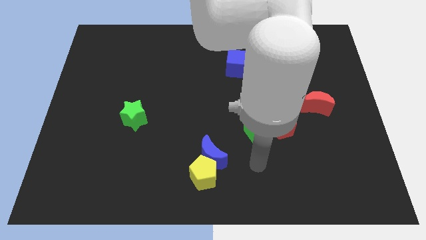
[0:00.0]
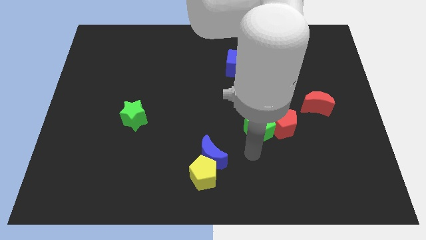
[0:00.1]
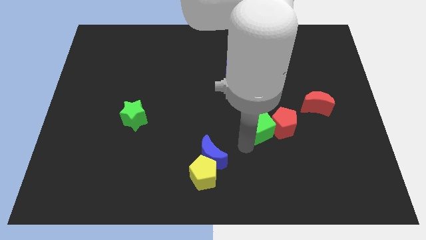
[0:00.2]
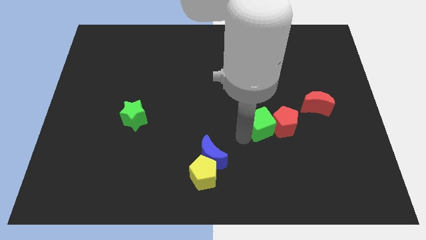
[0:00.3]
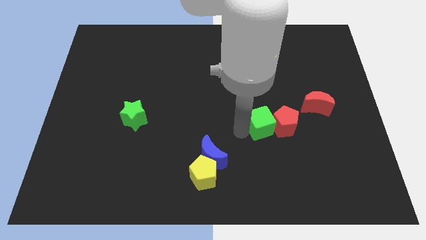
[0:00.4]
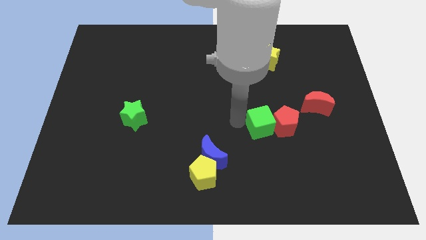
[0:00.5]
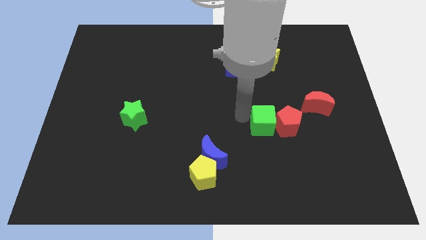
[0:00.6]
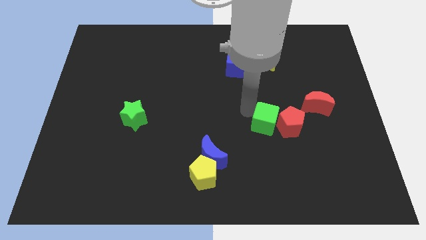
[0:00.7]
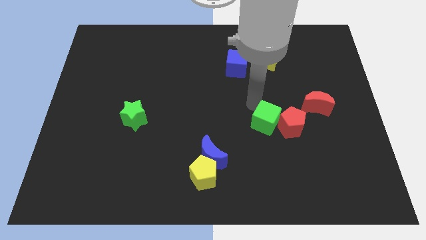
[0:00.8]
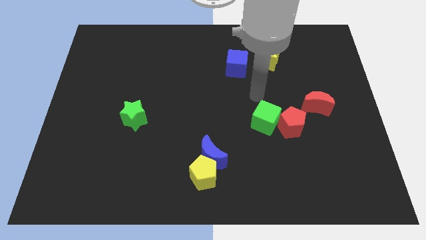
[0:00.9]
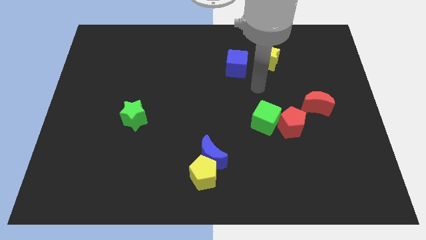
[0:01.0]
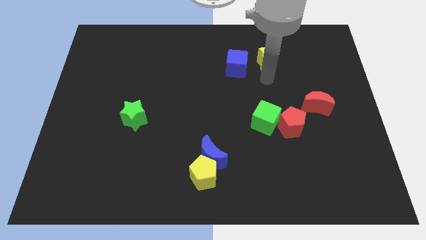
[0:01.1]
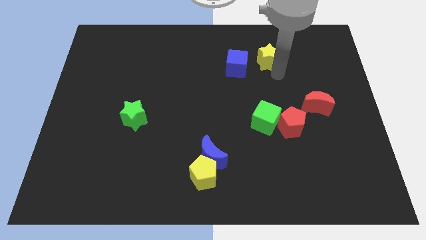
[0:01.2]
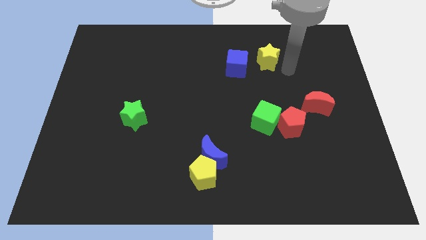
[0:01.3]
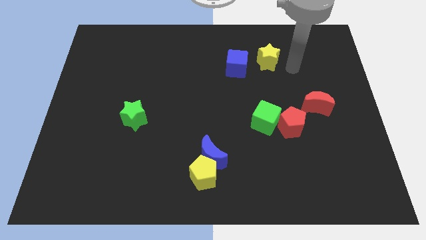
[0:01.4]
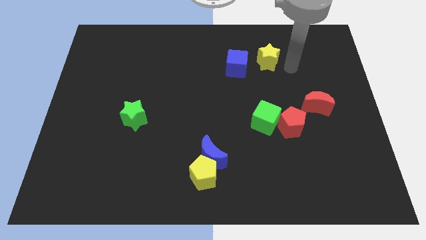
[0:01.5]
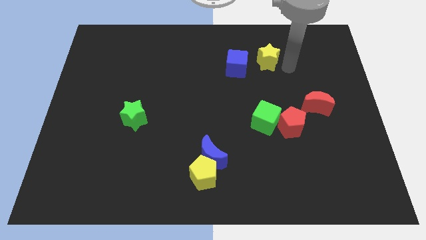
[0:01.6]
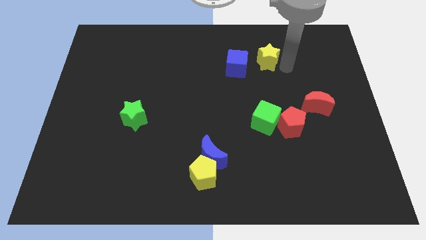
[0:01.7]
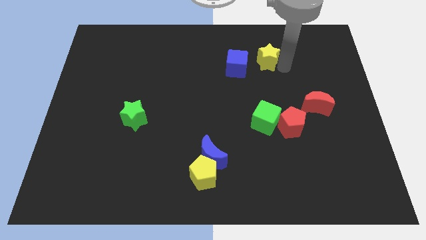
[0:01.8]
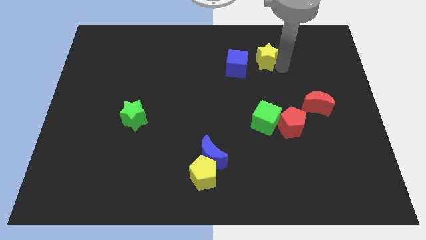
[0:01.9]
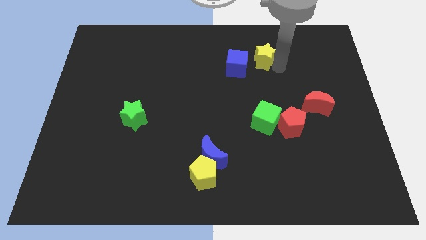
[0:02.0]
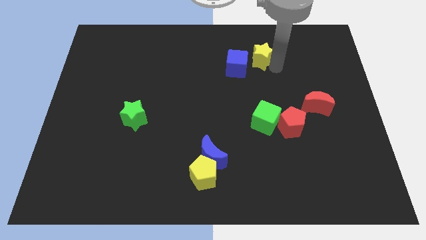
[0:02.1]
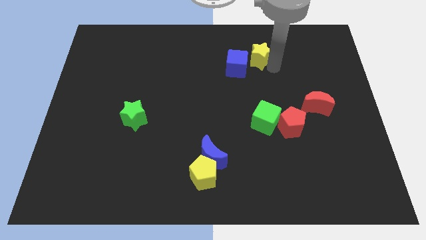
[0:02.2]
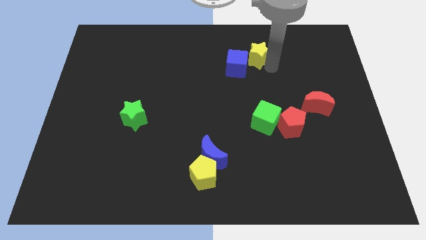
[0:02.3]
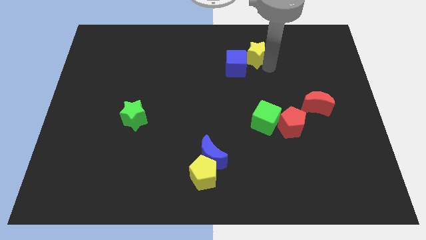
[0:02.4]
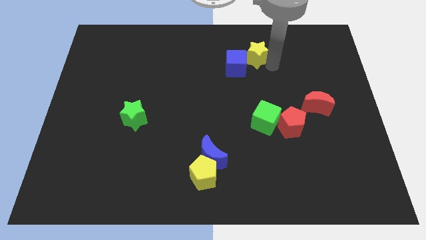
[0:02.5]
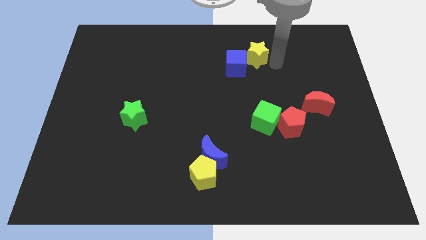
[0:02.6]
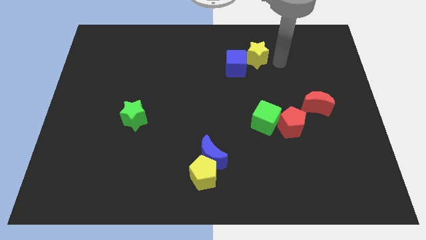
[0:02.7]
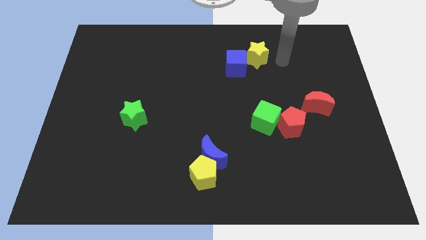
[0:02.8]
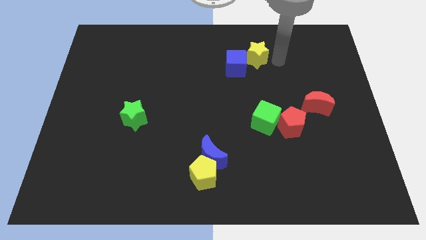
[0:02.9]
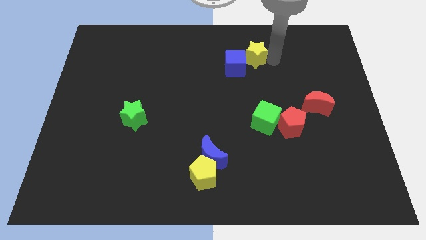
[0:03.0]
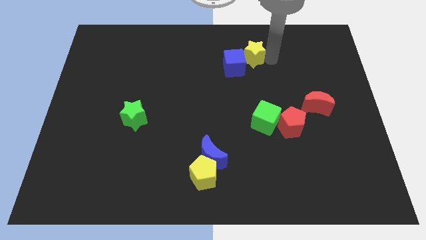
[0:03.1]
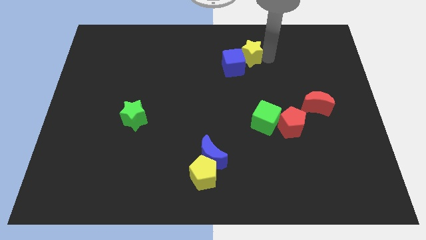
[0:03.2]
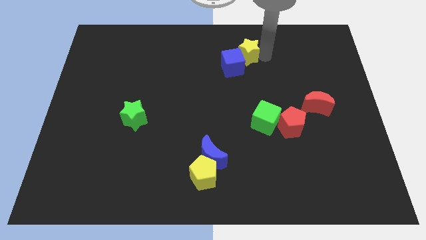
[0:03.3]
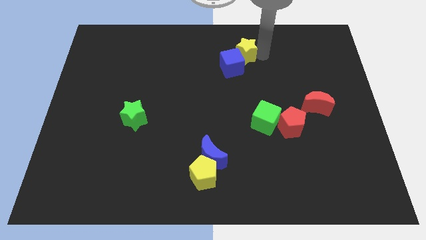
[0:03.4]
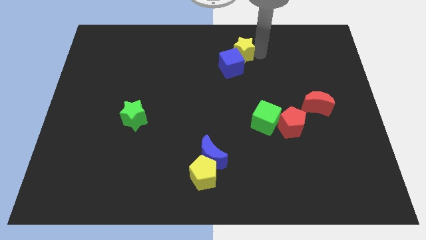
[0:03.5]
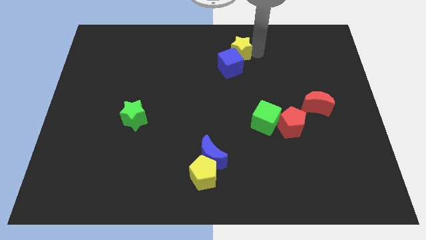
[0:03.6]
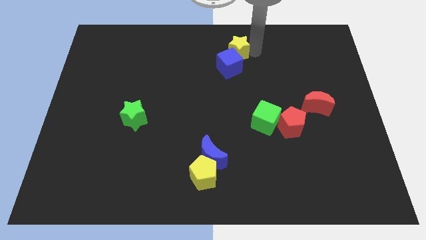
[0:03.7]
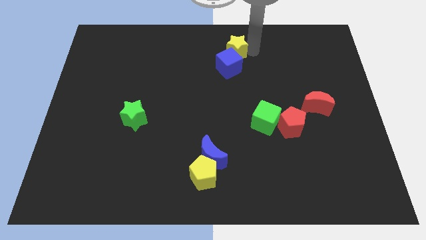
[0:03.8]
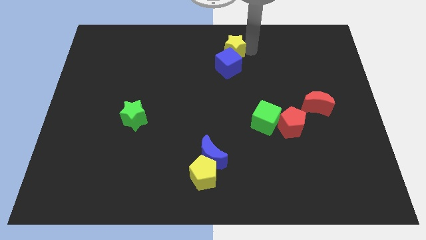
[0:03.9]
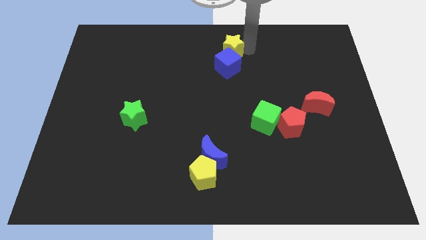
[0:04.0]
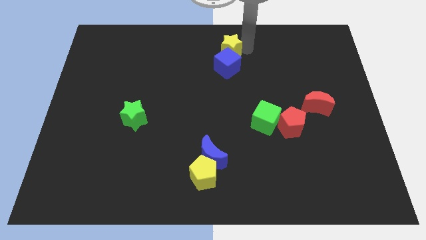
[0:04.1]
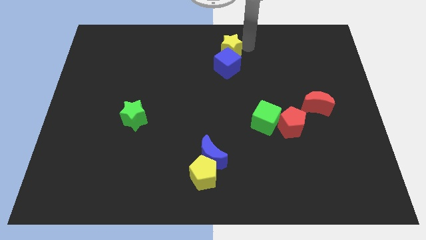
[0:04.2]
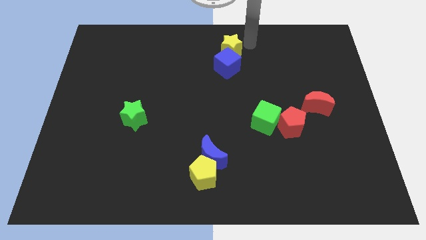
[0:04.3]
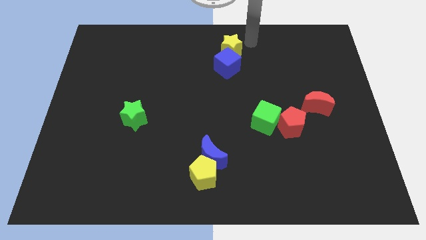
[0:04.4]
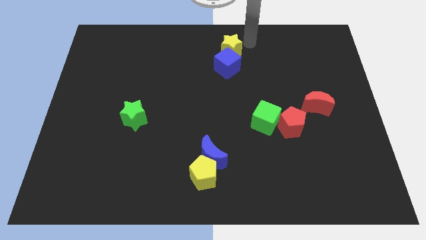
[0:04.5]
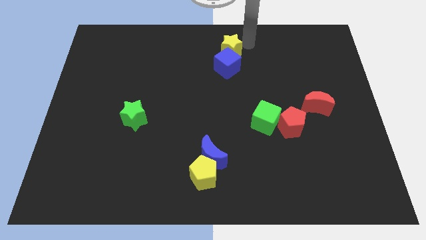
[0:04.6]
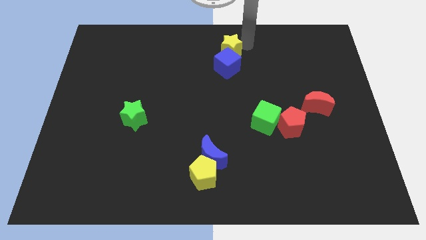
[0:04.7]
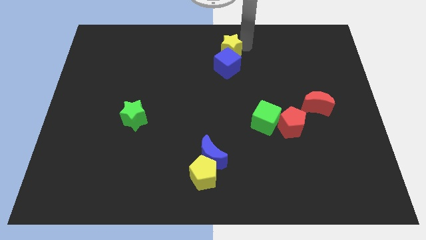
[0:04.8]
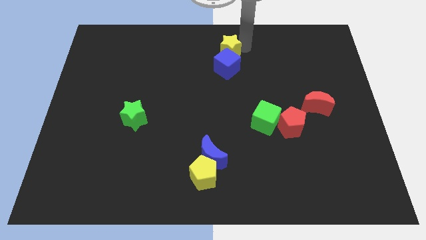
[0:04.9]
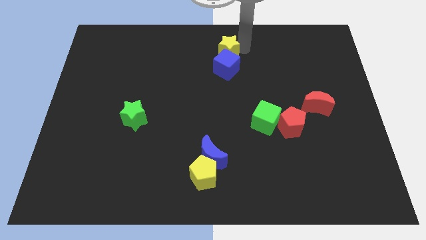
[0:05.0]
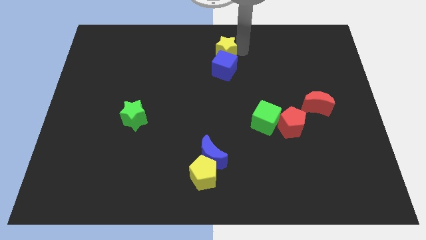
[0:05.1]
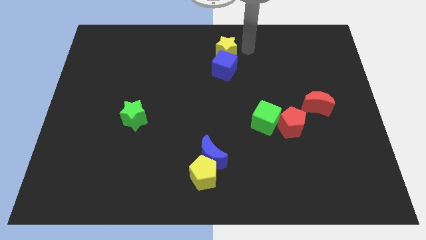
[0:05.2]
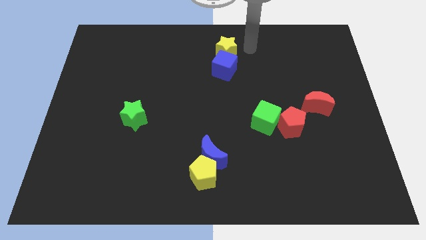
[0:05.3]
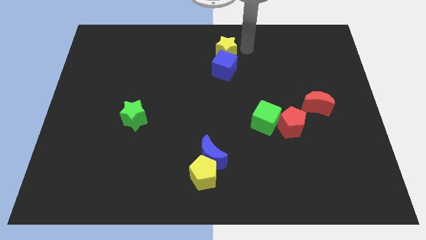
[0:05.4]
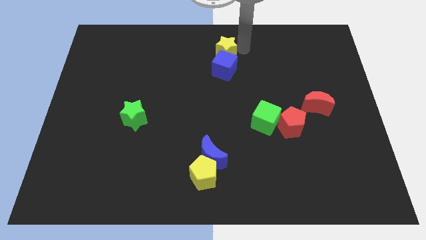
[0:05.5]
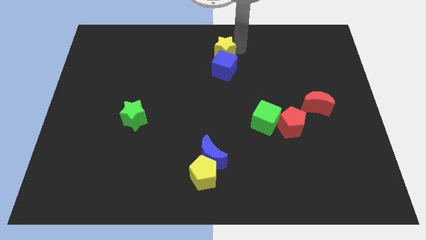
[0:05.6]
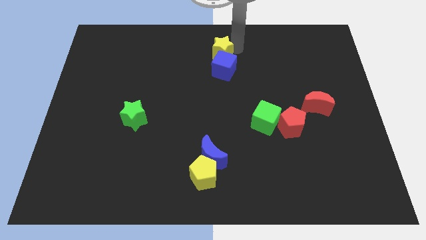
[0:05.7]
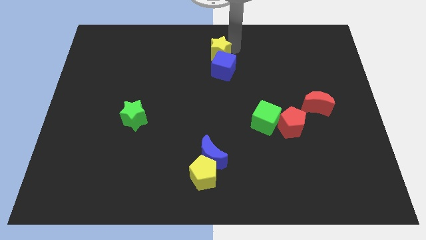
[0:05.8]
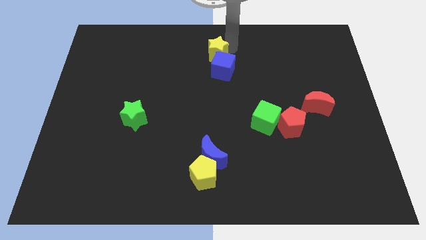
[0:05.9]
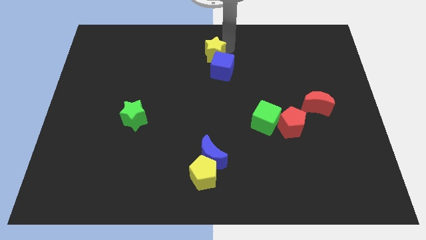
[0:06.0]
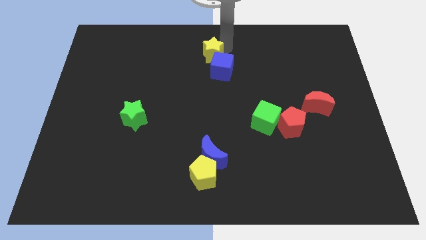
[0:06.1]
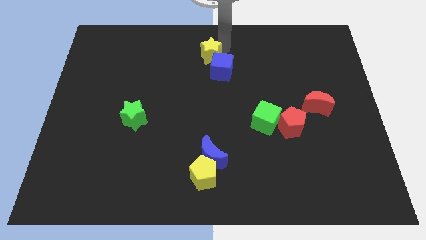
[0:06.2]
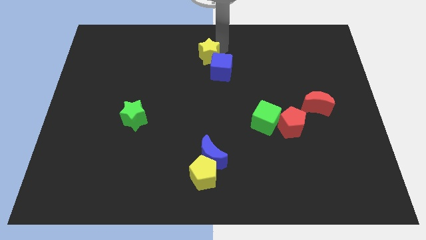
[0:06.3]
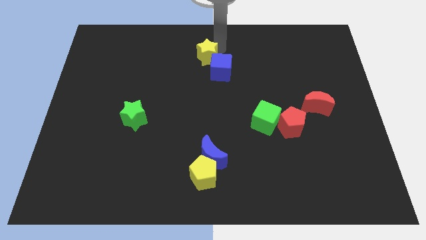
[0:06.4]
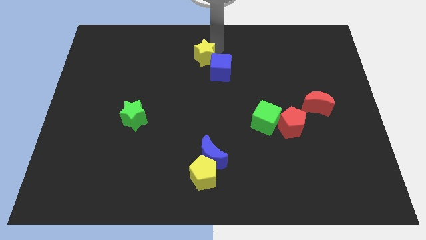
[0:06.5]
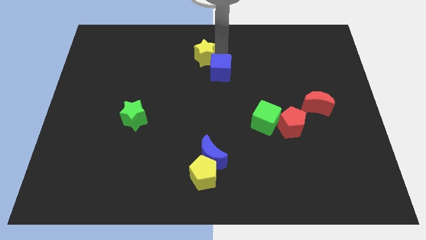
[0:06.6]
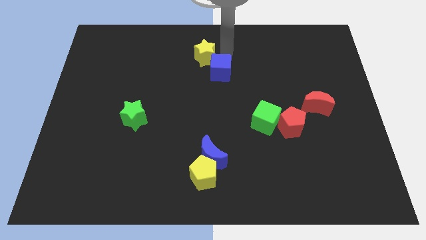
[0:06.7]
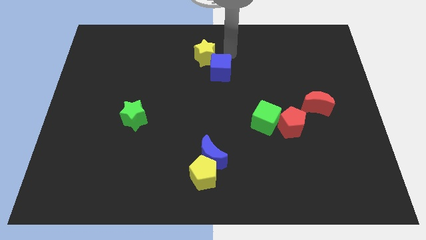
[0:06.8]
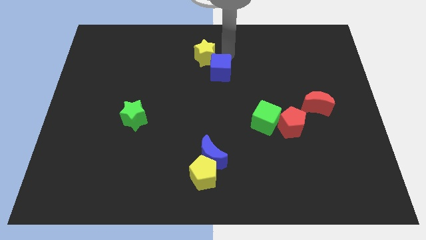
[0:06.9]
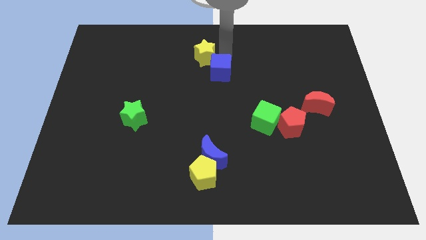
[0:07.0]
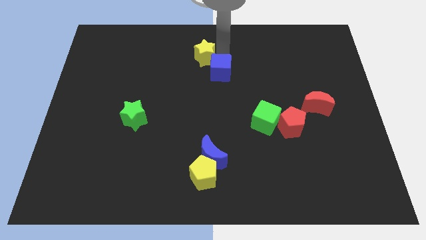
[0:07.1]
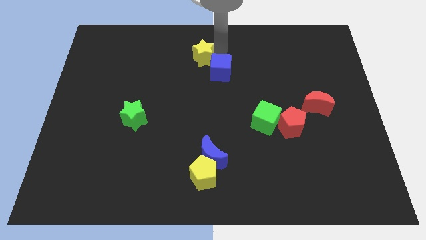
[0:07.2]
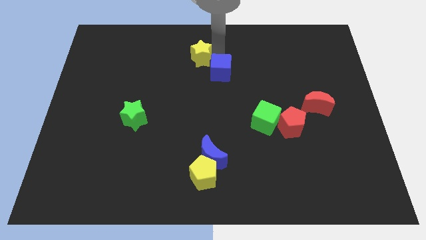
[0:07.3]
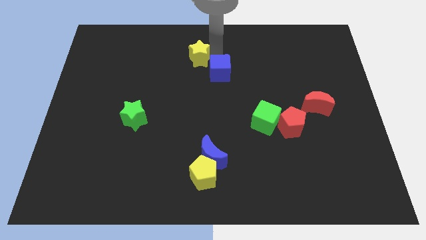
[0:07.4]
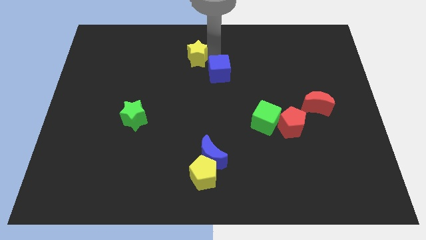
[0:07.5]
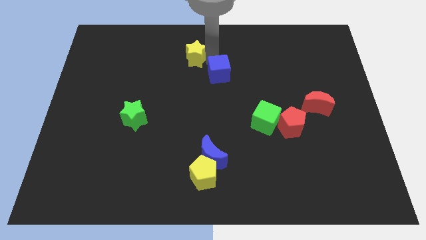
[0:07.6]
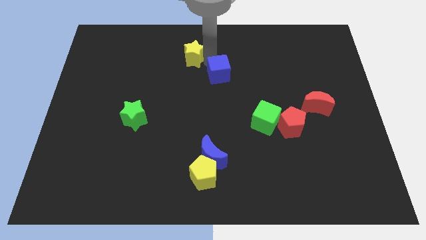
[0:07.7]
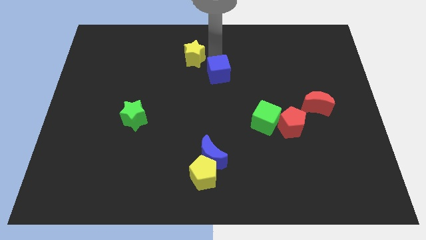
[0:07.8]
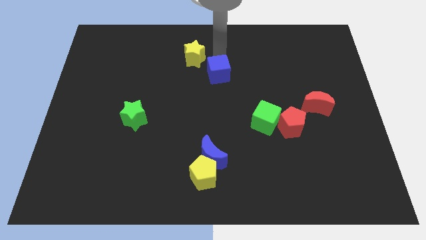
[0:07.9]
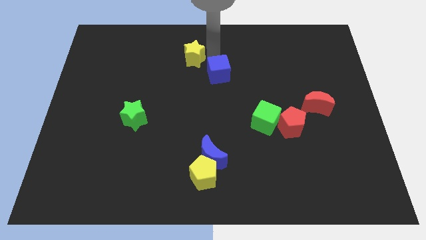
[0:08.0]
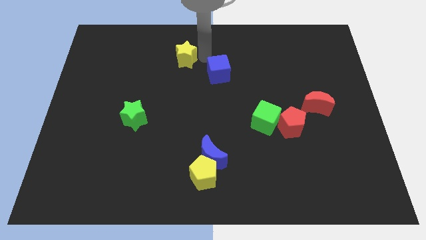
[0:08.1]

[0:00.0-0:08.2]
move the yellow star to the left
